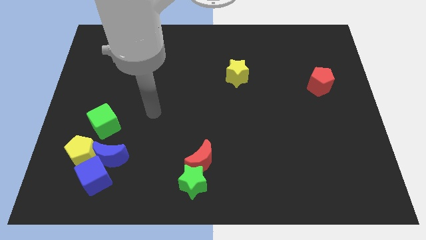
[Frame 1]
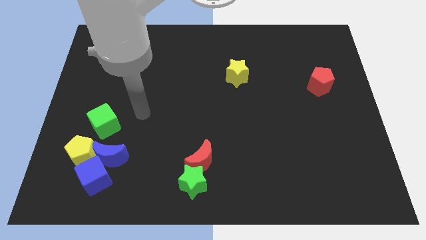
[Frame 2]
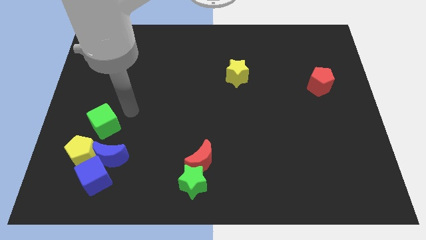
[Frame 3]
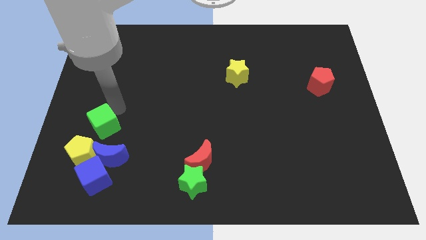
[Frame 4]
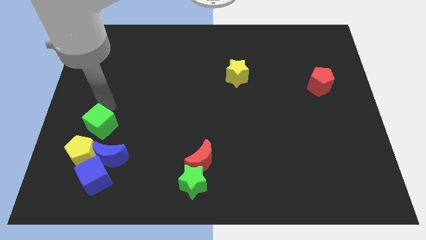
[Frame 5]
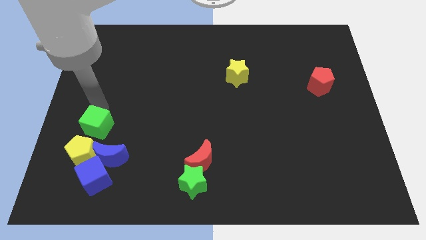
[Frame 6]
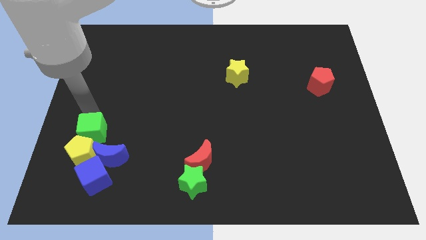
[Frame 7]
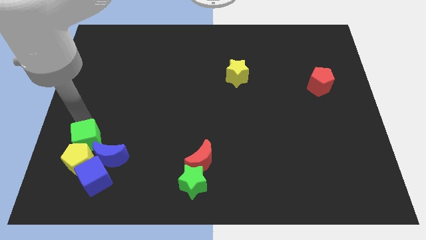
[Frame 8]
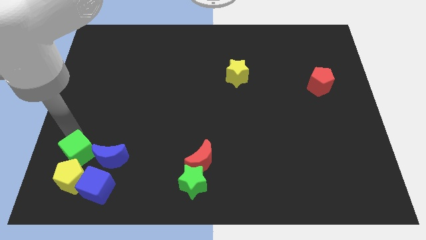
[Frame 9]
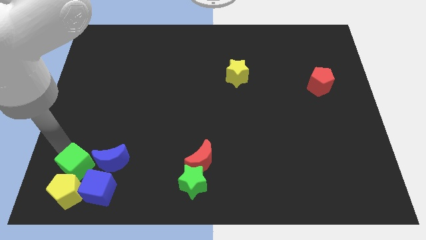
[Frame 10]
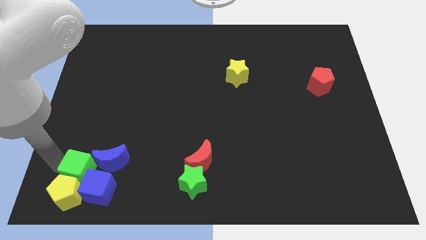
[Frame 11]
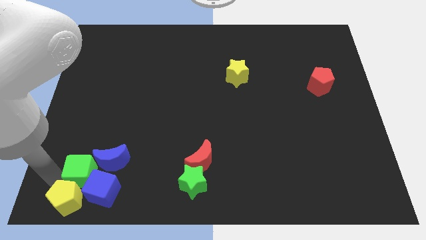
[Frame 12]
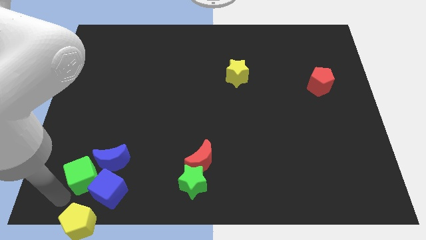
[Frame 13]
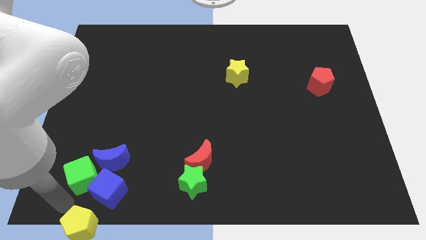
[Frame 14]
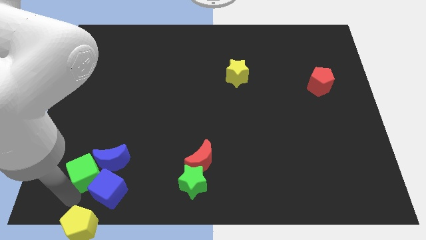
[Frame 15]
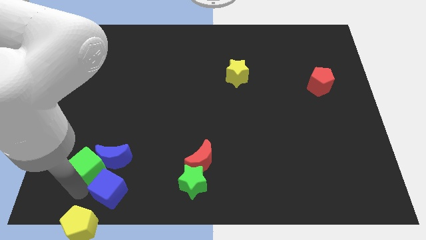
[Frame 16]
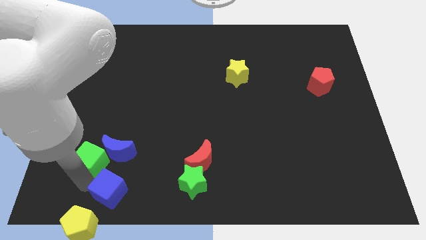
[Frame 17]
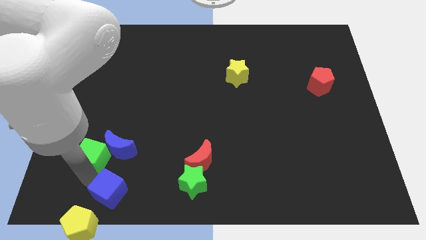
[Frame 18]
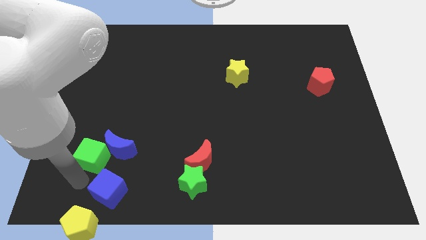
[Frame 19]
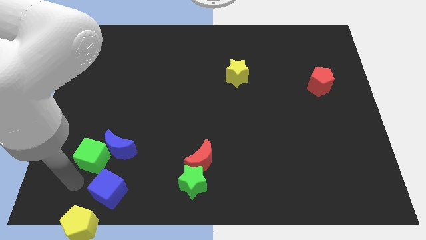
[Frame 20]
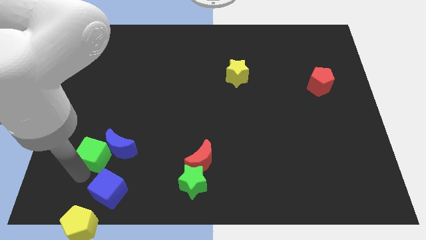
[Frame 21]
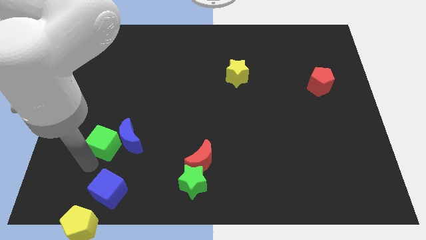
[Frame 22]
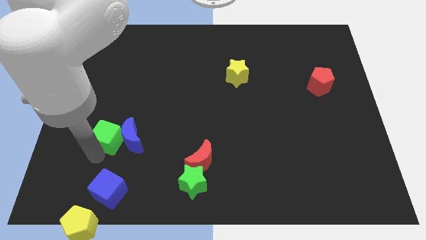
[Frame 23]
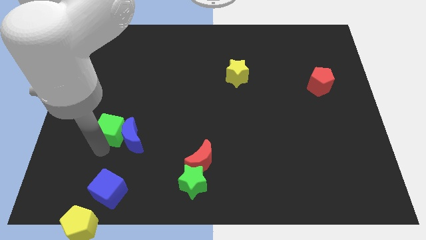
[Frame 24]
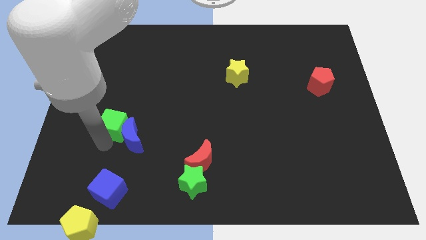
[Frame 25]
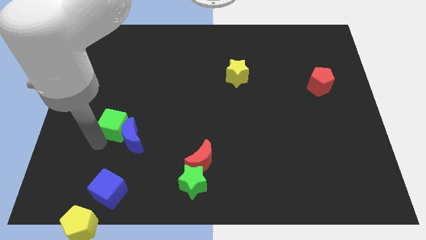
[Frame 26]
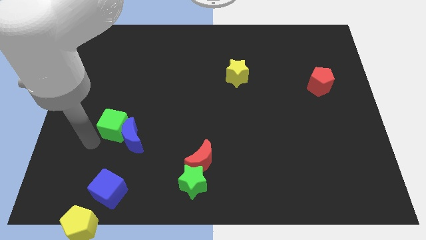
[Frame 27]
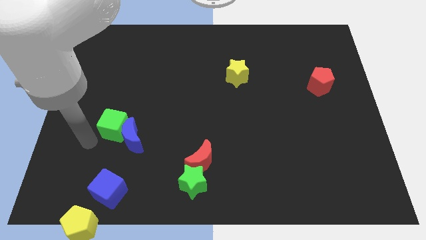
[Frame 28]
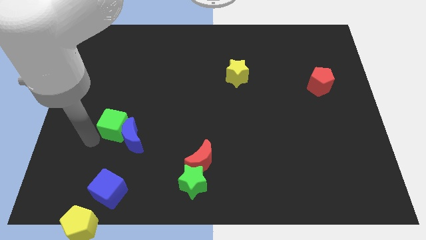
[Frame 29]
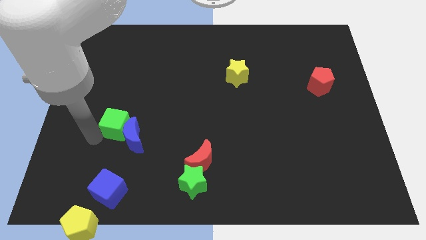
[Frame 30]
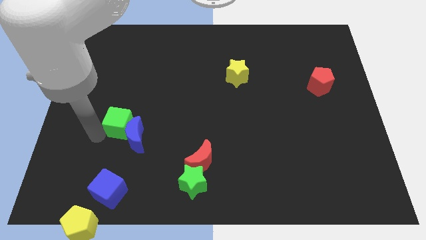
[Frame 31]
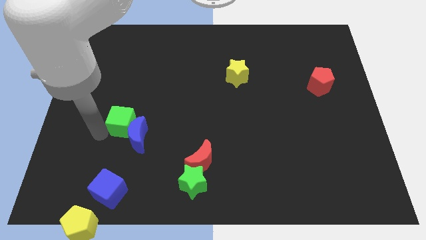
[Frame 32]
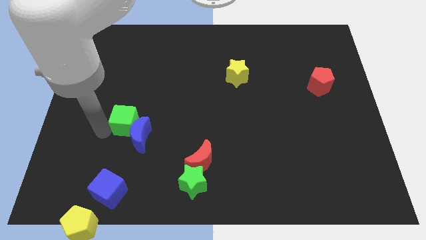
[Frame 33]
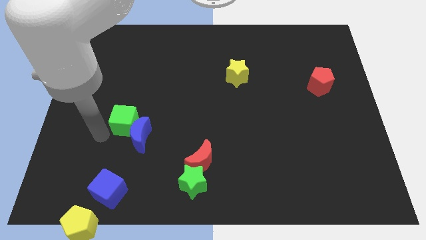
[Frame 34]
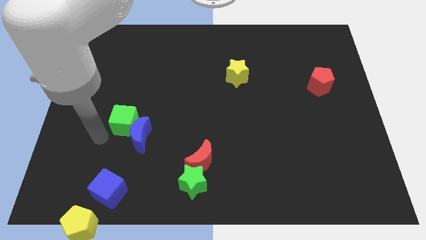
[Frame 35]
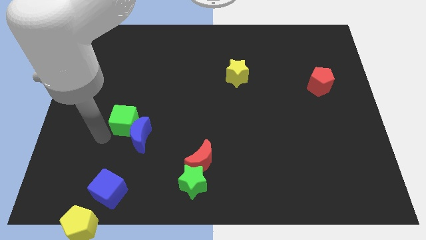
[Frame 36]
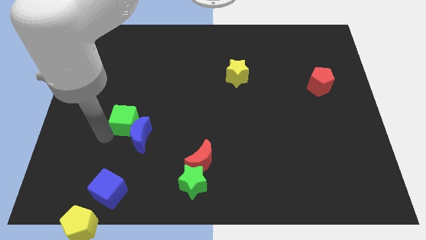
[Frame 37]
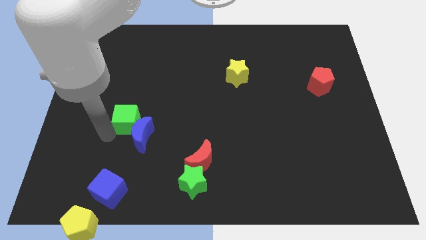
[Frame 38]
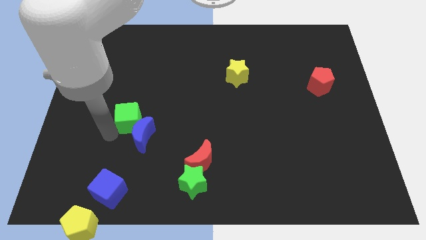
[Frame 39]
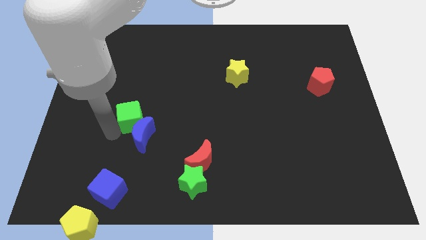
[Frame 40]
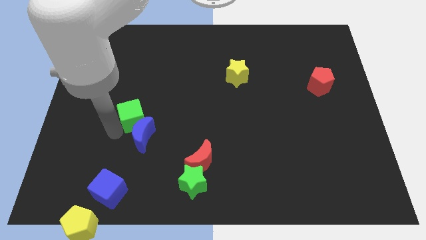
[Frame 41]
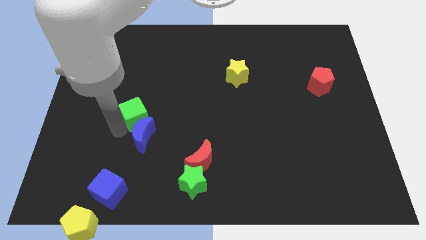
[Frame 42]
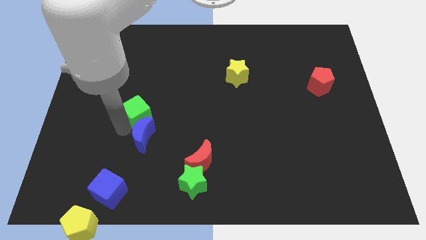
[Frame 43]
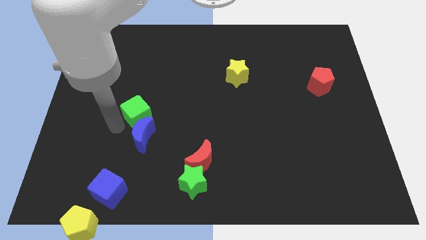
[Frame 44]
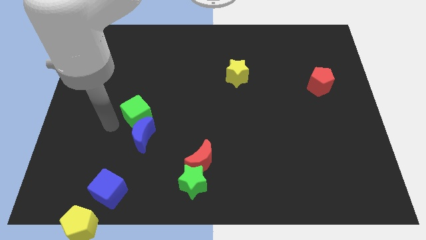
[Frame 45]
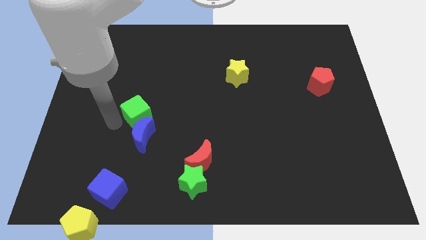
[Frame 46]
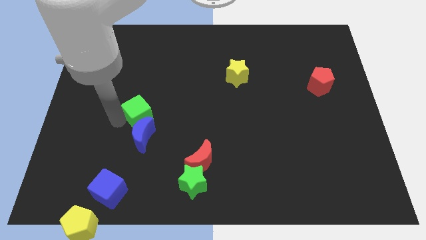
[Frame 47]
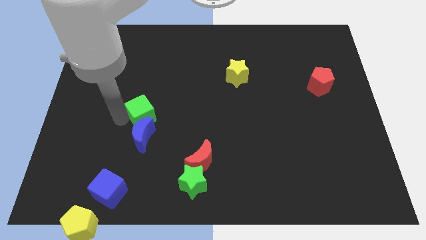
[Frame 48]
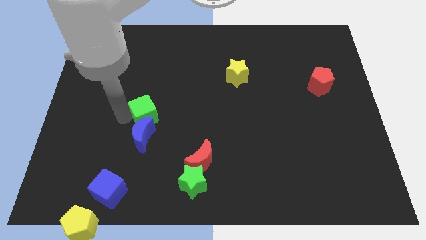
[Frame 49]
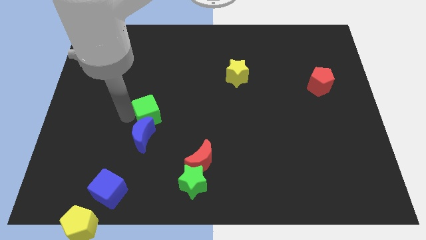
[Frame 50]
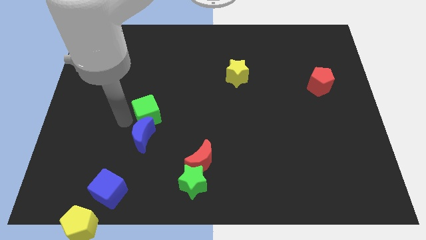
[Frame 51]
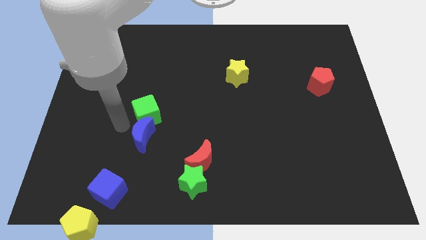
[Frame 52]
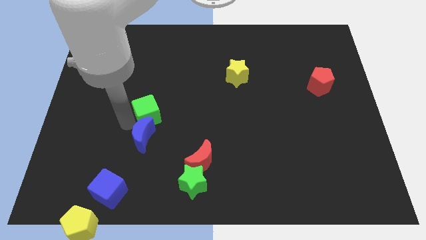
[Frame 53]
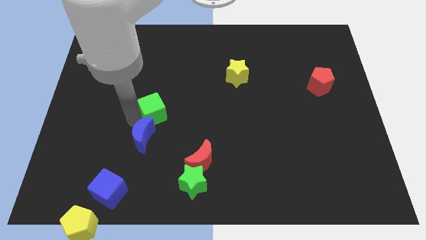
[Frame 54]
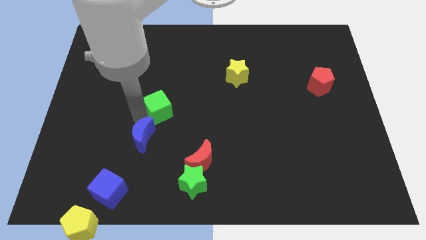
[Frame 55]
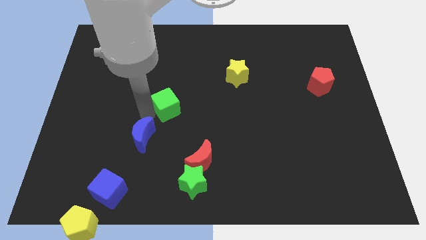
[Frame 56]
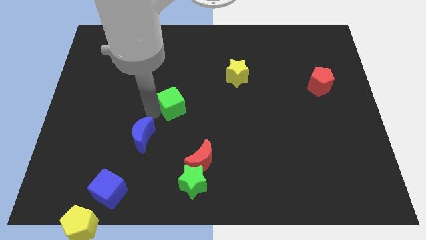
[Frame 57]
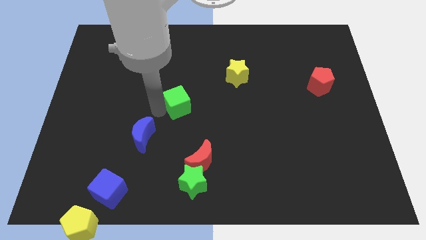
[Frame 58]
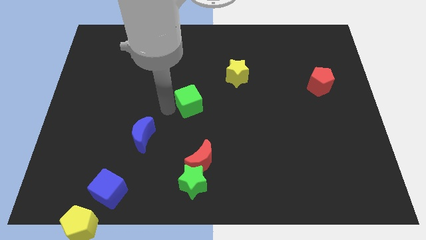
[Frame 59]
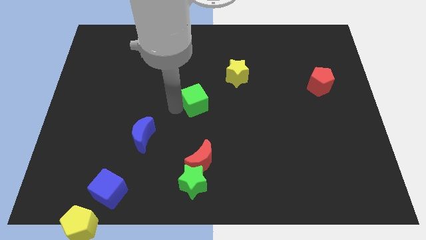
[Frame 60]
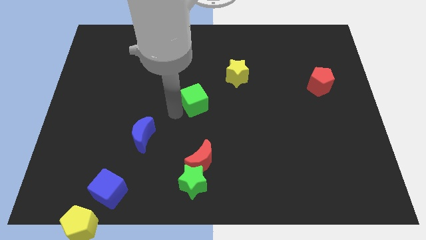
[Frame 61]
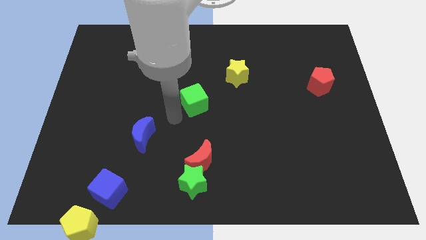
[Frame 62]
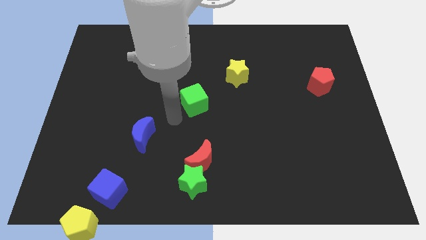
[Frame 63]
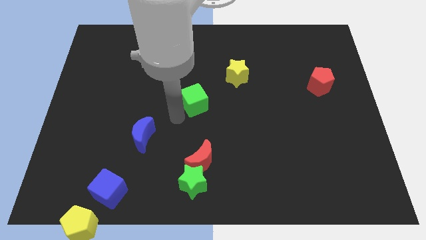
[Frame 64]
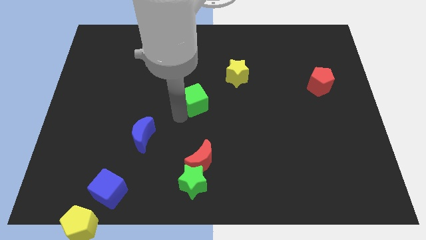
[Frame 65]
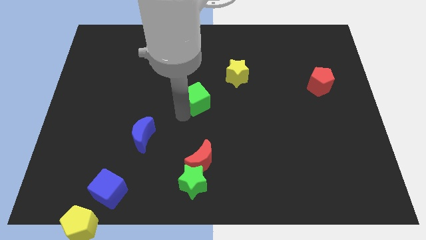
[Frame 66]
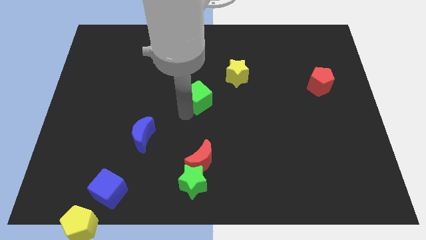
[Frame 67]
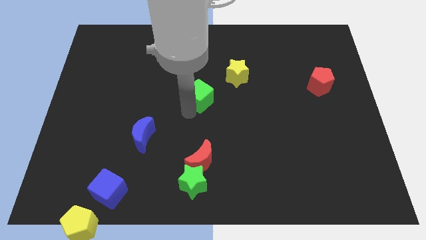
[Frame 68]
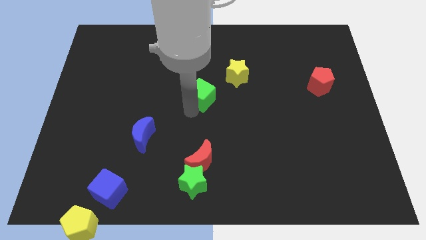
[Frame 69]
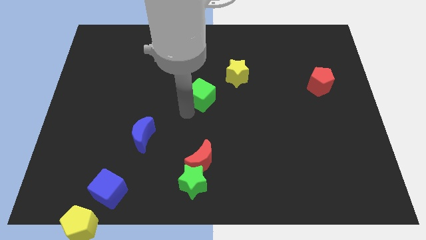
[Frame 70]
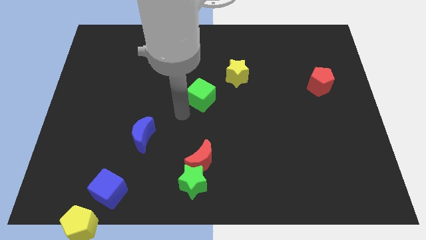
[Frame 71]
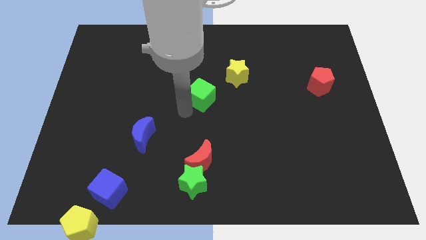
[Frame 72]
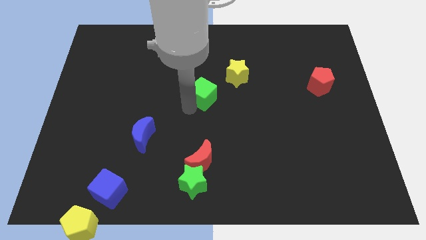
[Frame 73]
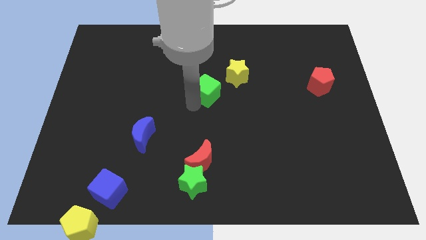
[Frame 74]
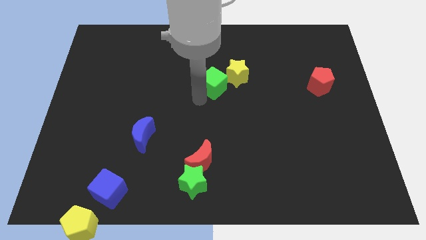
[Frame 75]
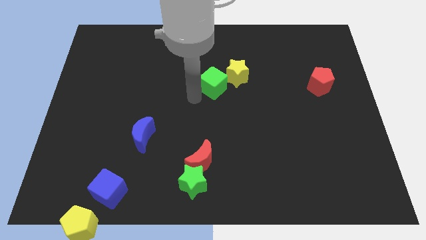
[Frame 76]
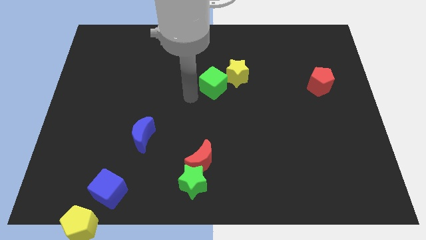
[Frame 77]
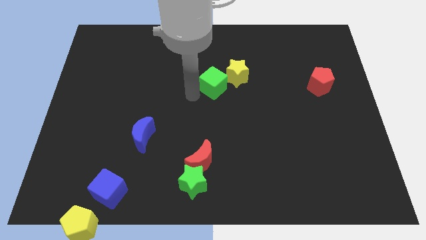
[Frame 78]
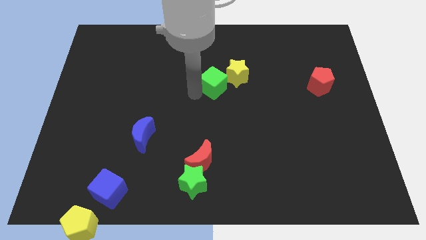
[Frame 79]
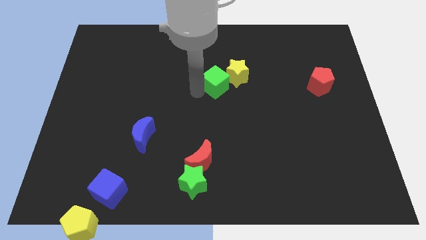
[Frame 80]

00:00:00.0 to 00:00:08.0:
put the green cube towards the yellow star
